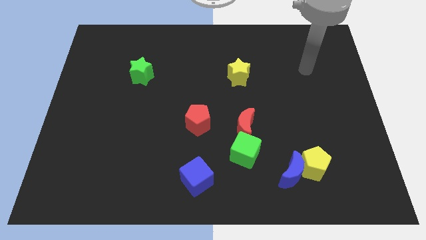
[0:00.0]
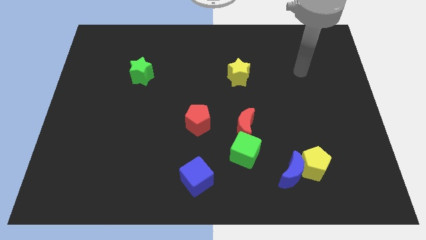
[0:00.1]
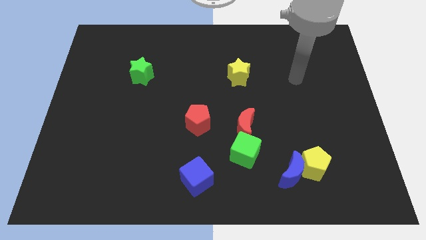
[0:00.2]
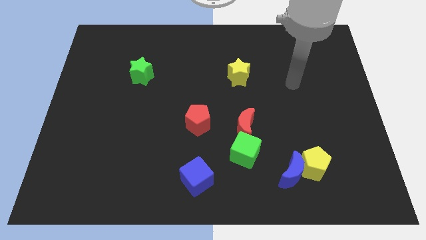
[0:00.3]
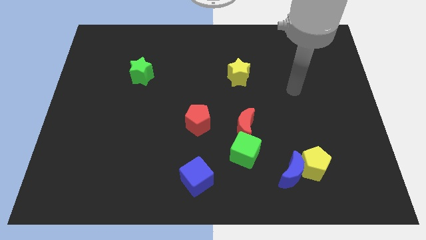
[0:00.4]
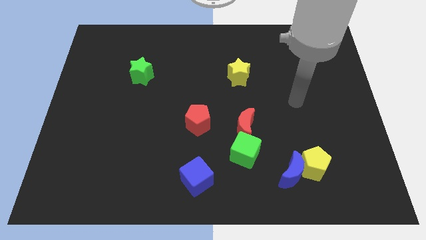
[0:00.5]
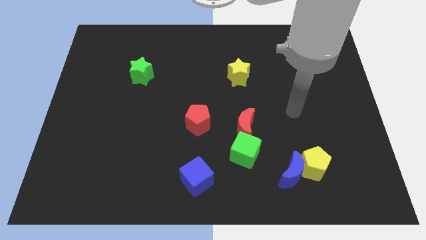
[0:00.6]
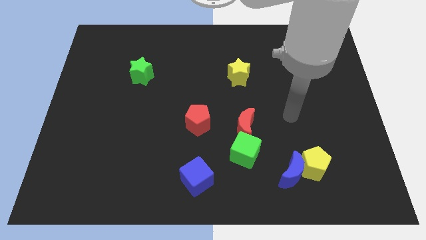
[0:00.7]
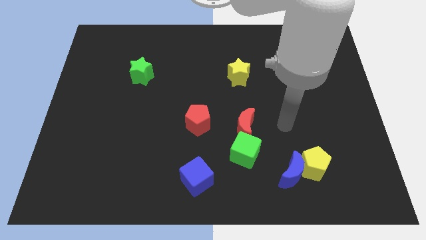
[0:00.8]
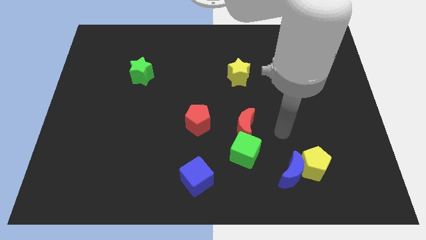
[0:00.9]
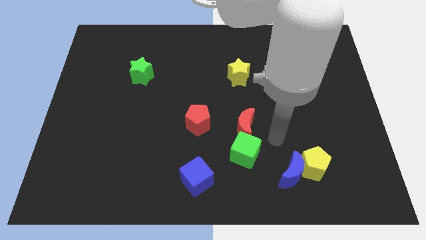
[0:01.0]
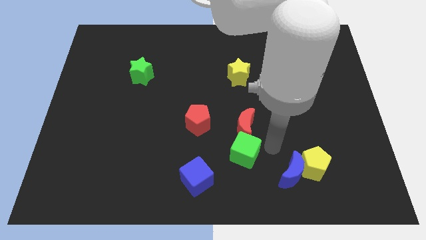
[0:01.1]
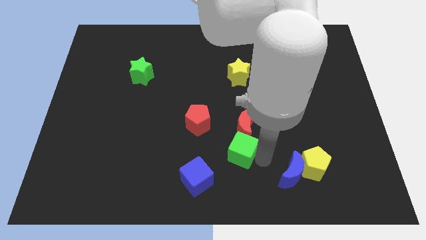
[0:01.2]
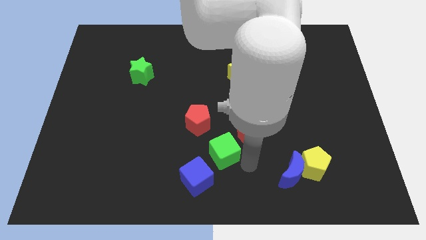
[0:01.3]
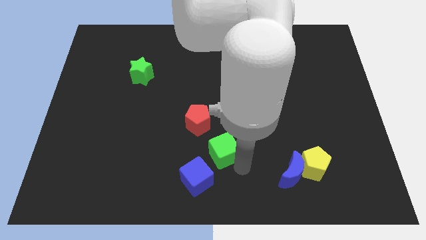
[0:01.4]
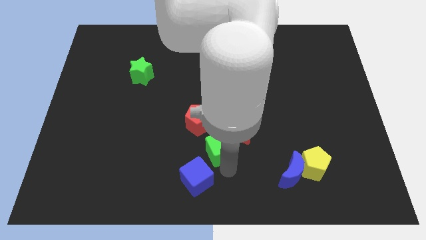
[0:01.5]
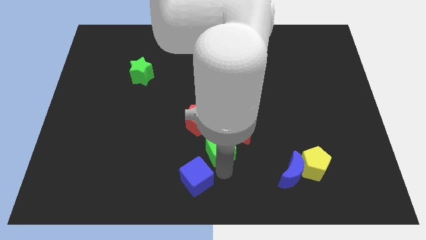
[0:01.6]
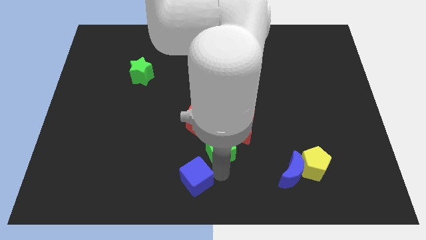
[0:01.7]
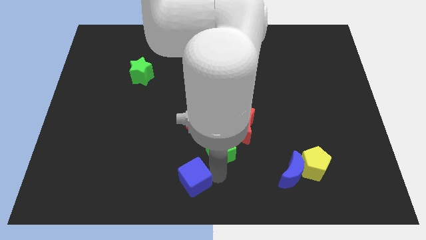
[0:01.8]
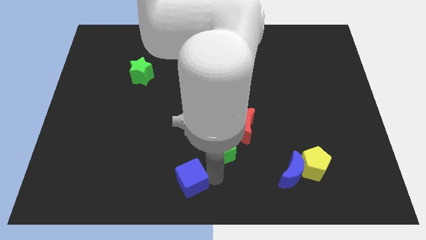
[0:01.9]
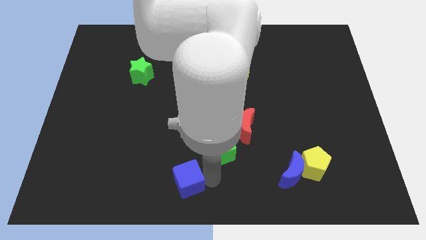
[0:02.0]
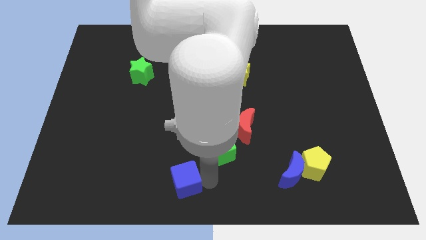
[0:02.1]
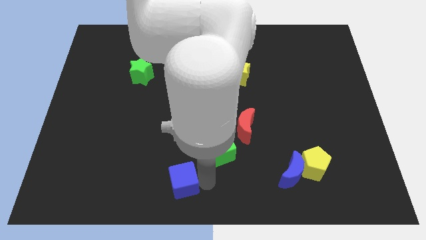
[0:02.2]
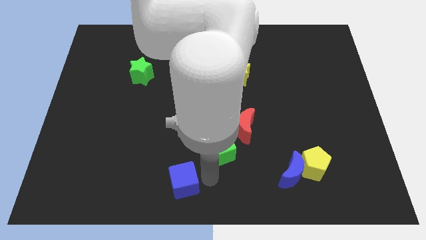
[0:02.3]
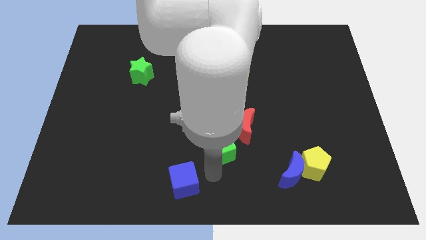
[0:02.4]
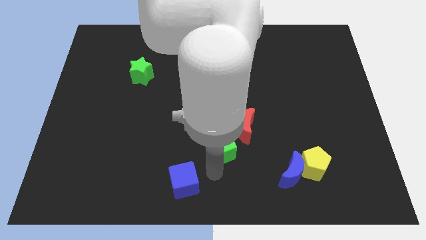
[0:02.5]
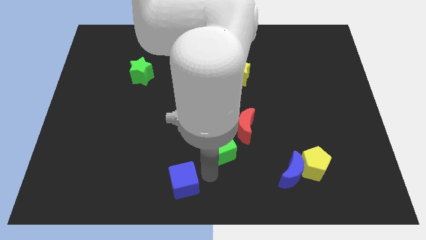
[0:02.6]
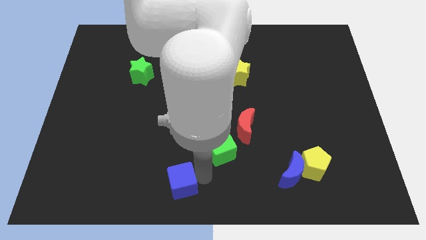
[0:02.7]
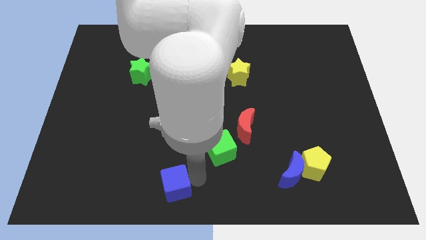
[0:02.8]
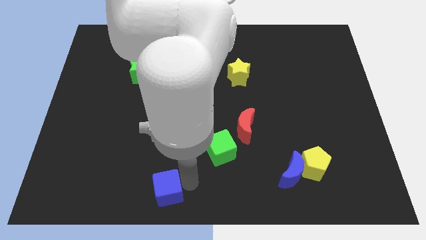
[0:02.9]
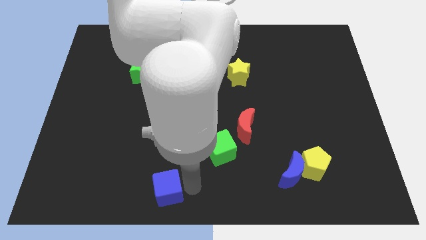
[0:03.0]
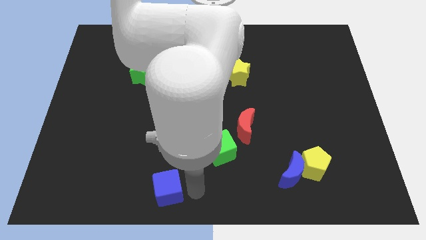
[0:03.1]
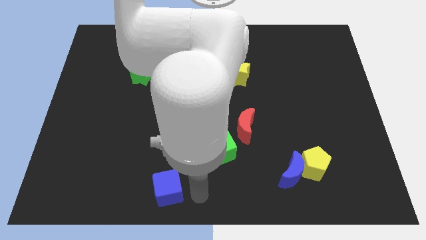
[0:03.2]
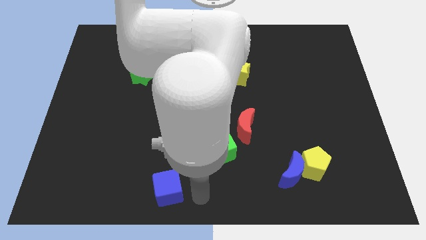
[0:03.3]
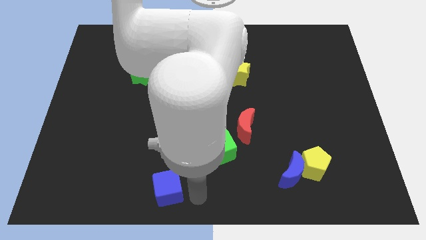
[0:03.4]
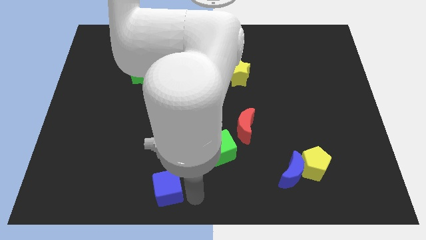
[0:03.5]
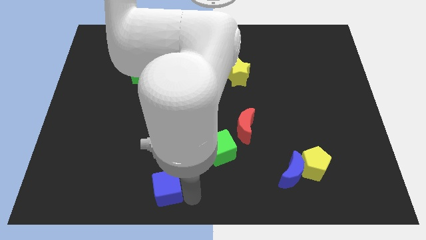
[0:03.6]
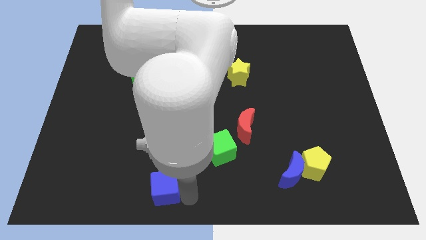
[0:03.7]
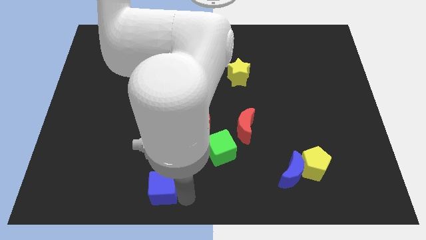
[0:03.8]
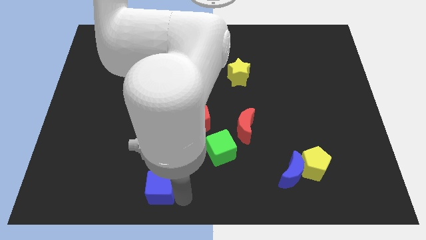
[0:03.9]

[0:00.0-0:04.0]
slightly move the blue cube to the left

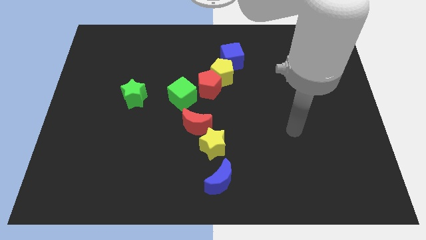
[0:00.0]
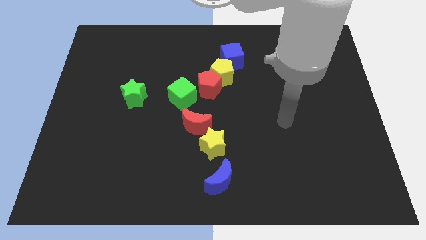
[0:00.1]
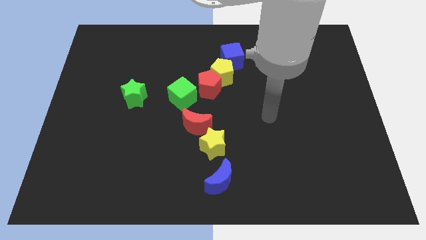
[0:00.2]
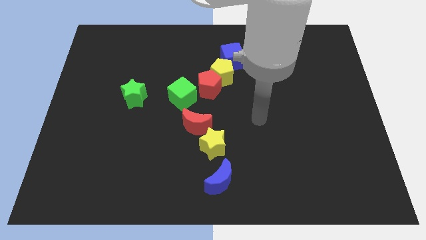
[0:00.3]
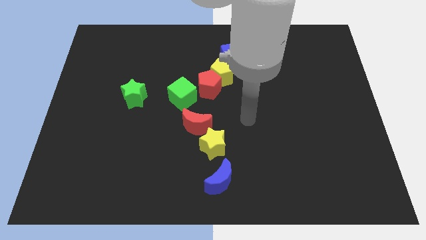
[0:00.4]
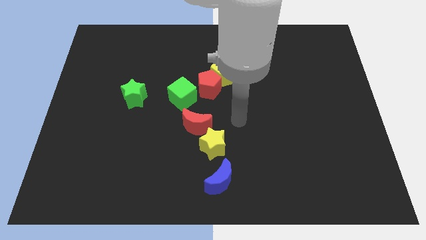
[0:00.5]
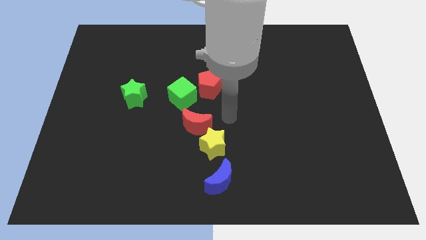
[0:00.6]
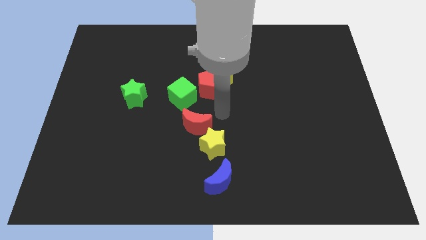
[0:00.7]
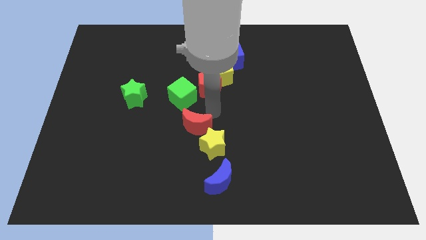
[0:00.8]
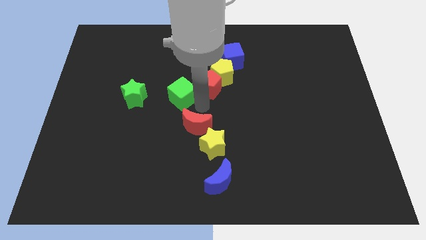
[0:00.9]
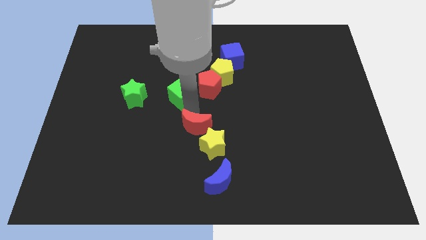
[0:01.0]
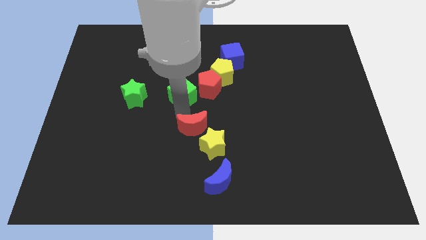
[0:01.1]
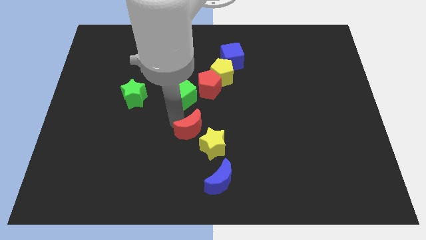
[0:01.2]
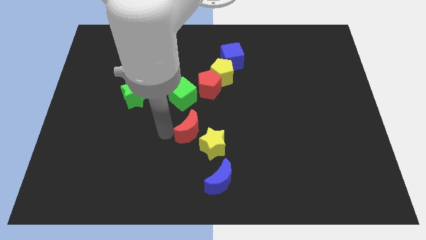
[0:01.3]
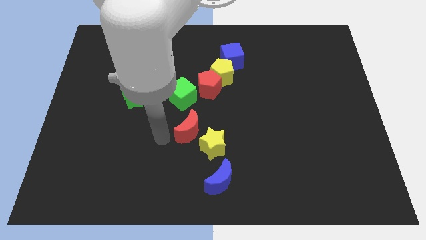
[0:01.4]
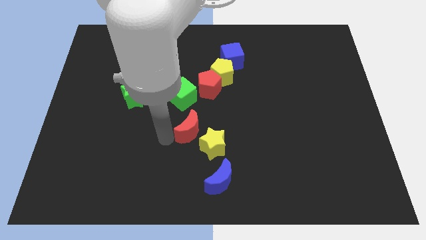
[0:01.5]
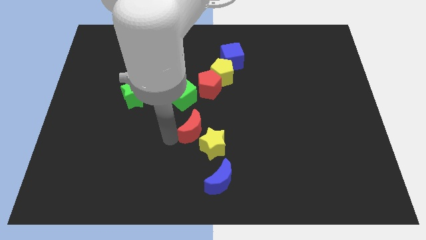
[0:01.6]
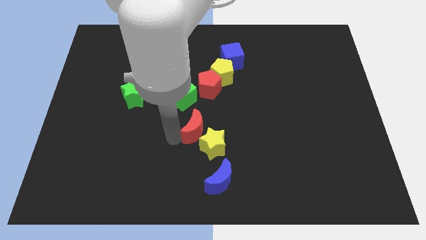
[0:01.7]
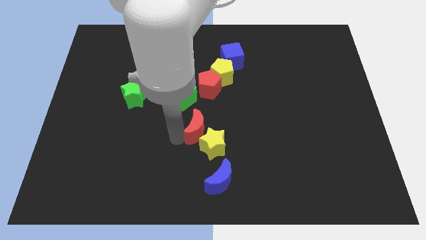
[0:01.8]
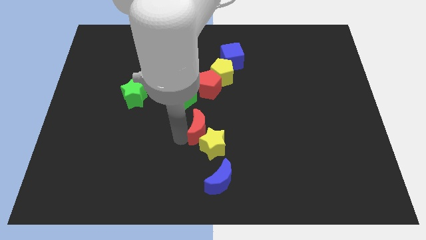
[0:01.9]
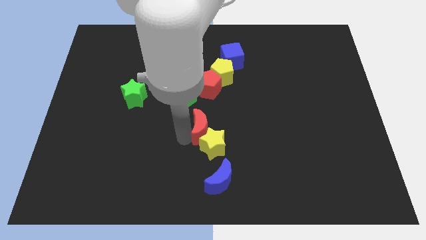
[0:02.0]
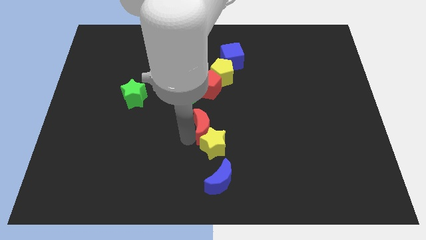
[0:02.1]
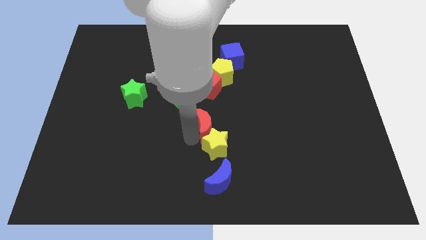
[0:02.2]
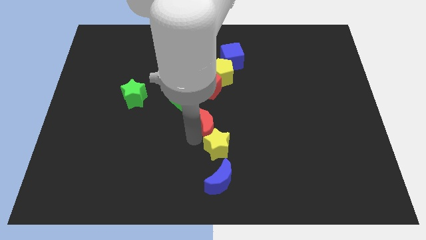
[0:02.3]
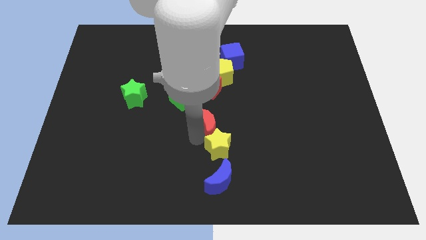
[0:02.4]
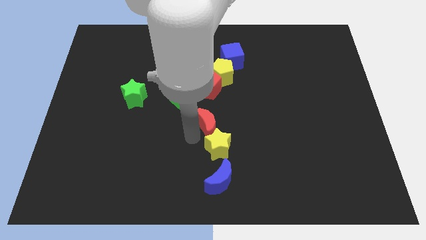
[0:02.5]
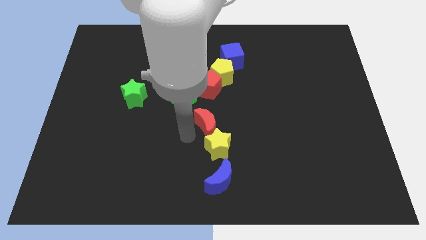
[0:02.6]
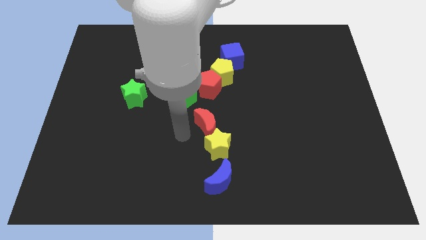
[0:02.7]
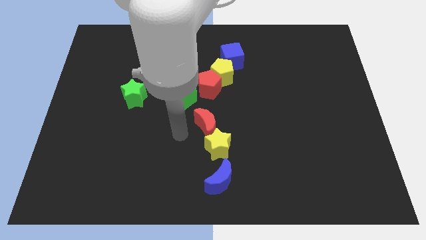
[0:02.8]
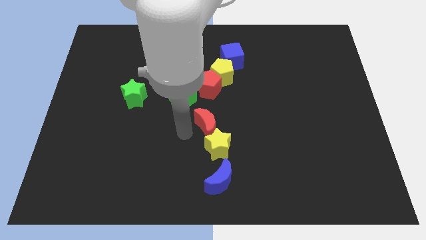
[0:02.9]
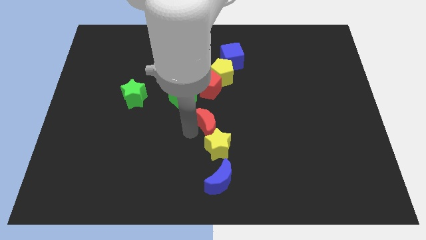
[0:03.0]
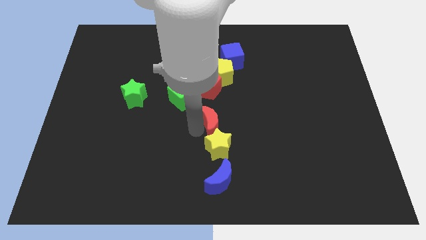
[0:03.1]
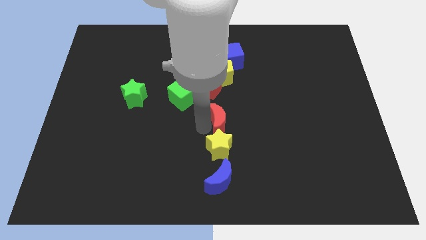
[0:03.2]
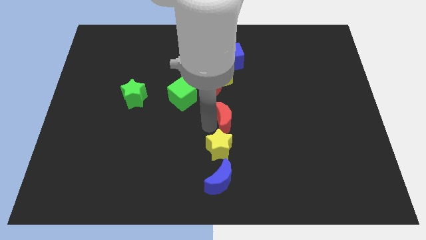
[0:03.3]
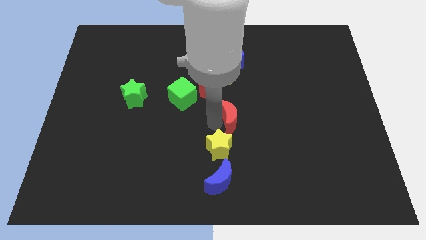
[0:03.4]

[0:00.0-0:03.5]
slide the red moon to the right a little bit

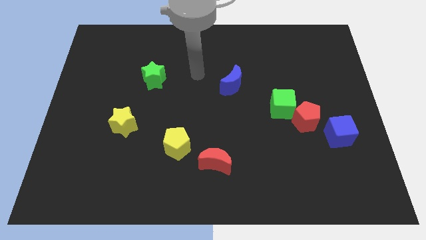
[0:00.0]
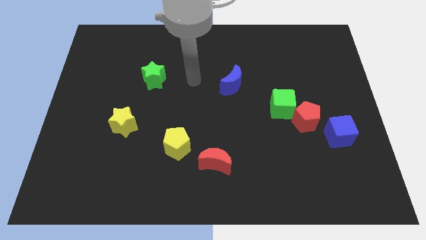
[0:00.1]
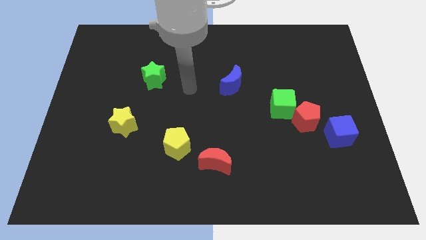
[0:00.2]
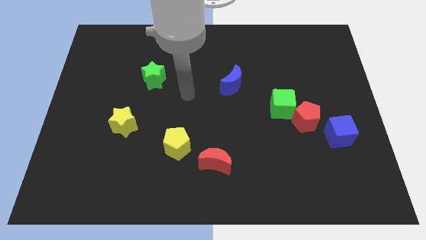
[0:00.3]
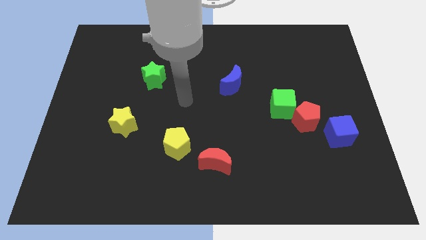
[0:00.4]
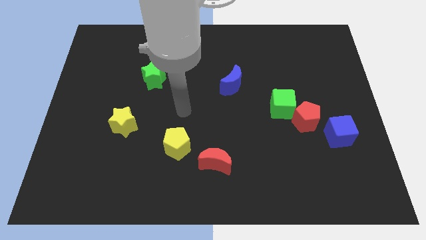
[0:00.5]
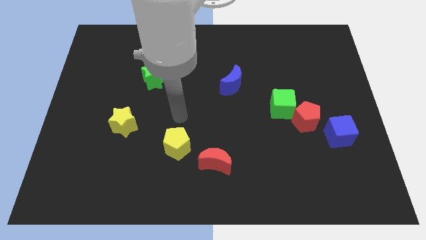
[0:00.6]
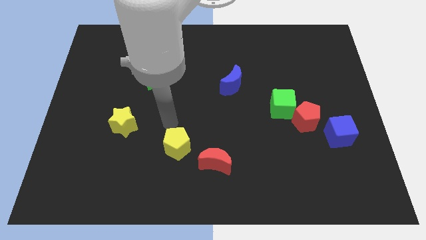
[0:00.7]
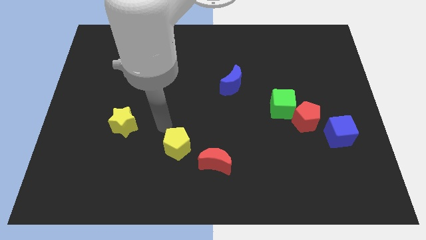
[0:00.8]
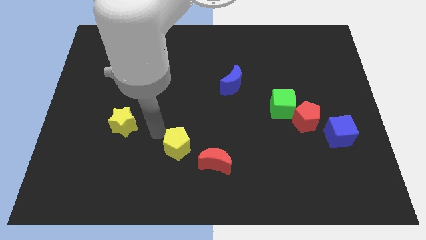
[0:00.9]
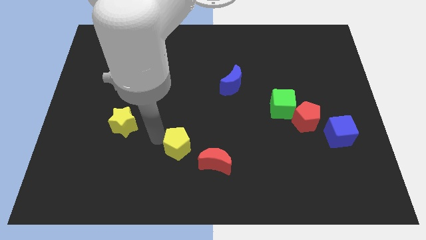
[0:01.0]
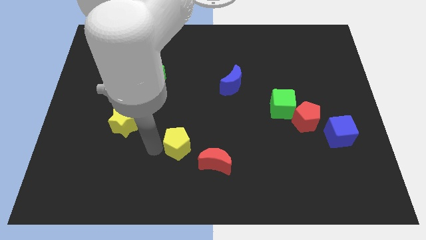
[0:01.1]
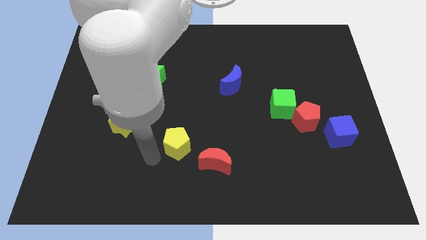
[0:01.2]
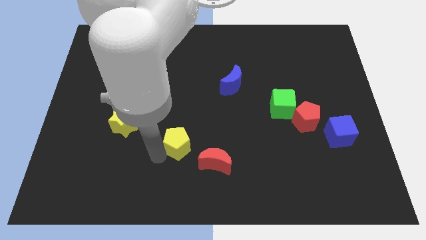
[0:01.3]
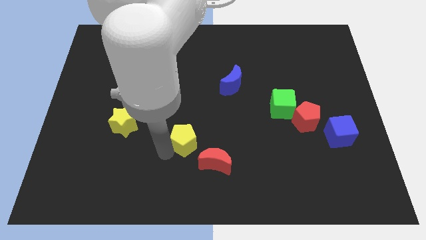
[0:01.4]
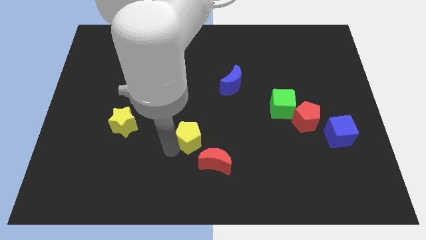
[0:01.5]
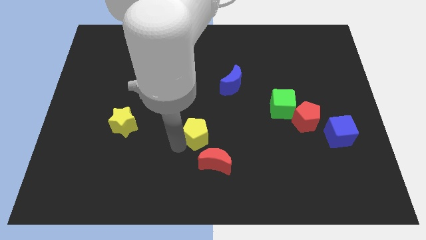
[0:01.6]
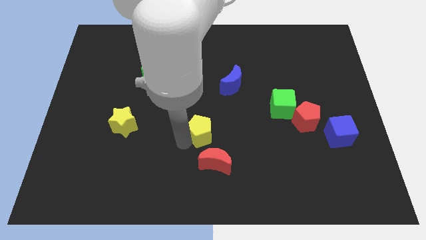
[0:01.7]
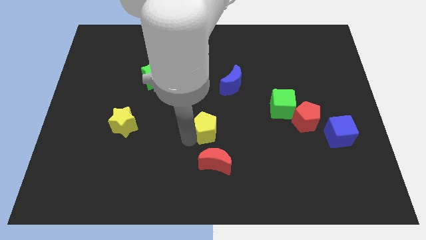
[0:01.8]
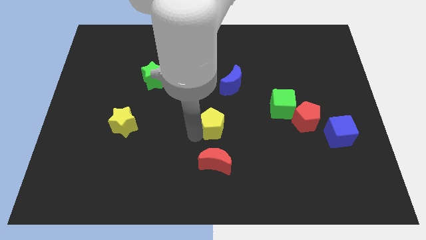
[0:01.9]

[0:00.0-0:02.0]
slightly move the yellow pentagon right
